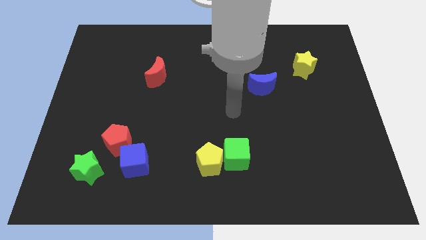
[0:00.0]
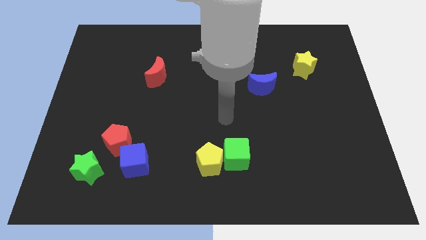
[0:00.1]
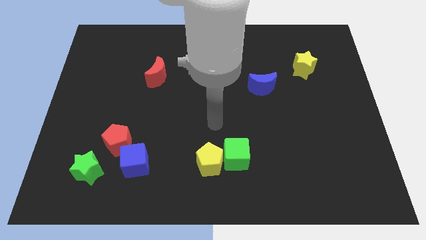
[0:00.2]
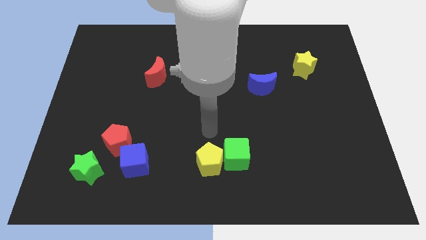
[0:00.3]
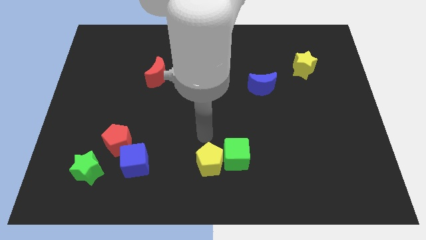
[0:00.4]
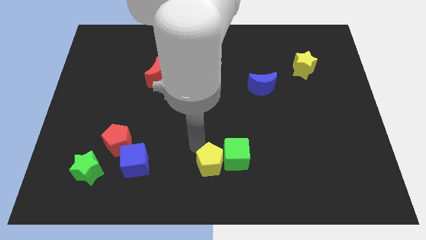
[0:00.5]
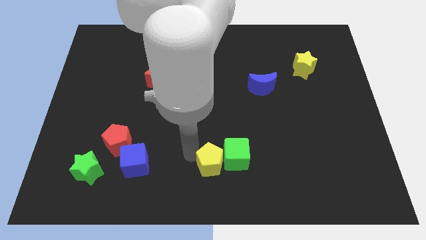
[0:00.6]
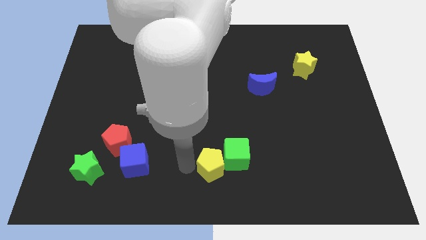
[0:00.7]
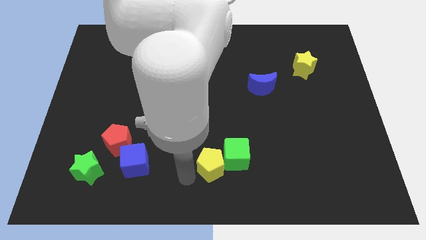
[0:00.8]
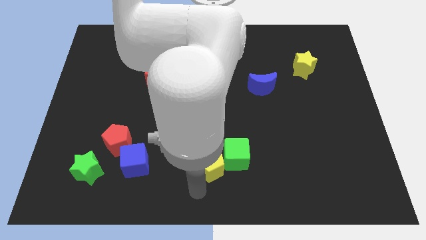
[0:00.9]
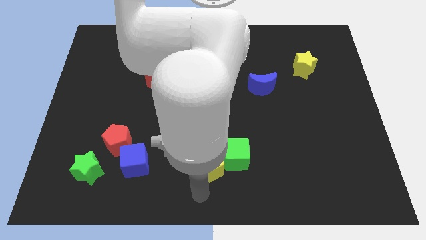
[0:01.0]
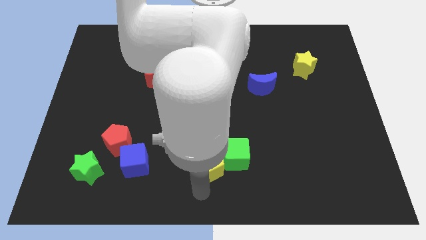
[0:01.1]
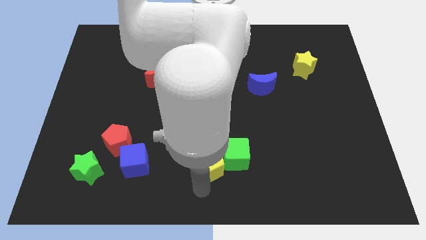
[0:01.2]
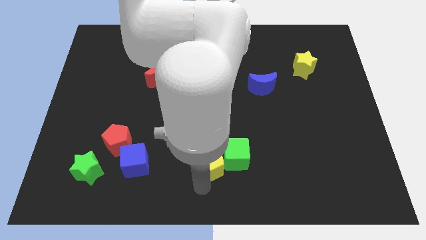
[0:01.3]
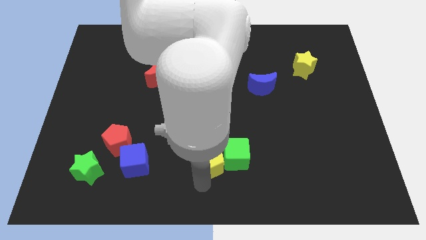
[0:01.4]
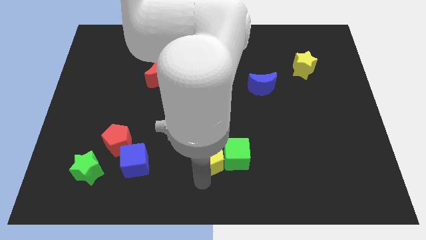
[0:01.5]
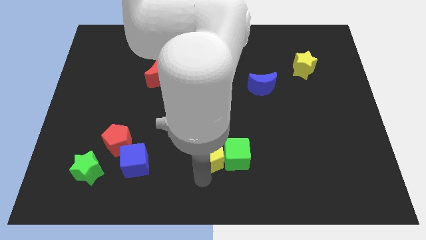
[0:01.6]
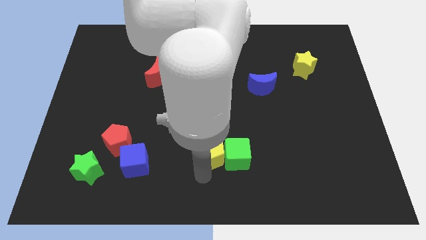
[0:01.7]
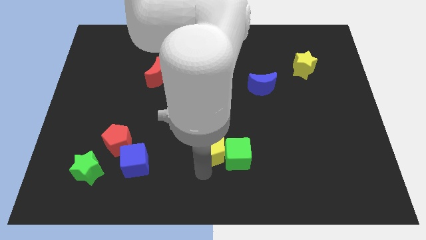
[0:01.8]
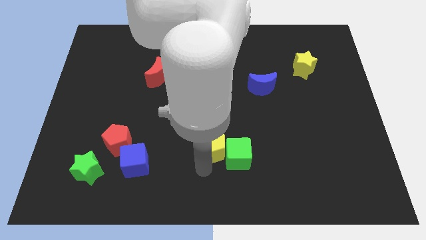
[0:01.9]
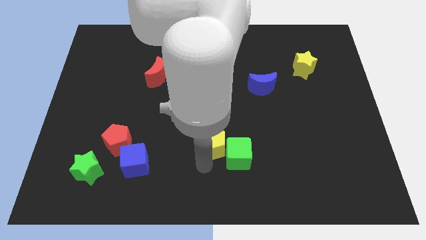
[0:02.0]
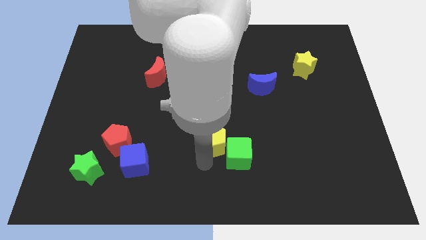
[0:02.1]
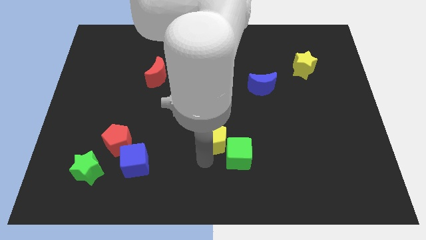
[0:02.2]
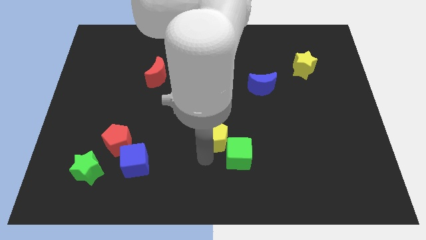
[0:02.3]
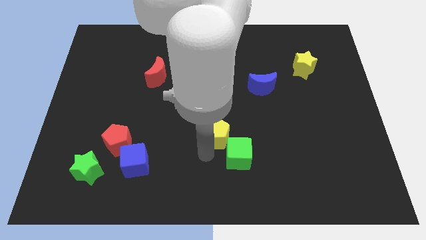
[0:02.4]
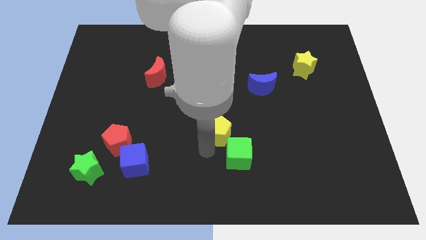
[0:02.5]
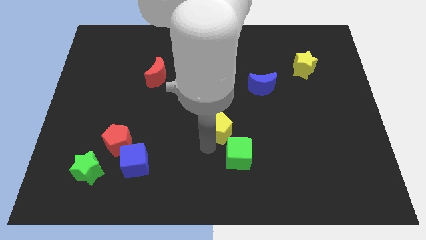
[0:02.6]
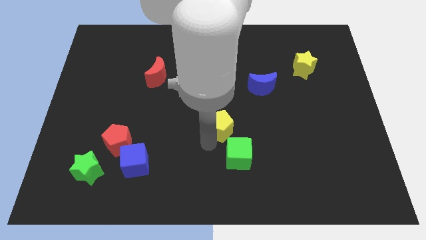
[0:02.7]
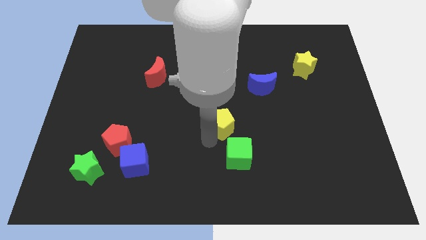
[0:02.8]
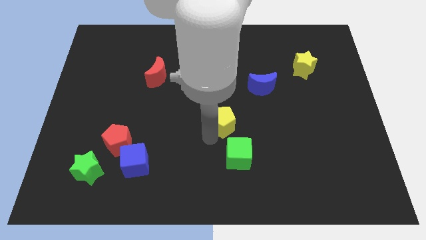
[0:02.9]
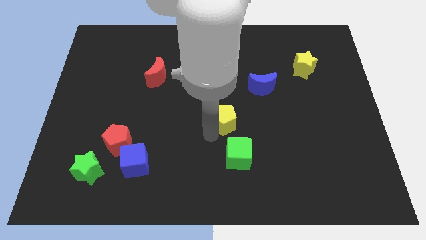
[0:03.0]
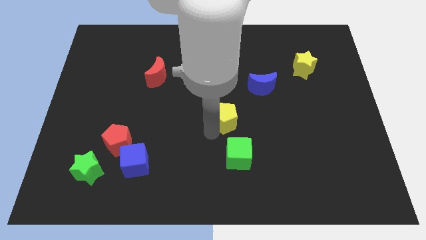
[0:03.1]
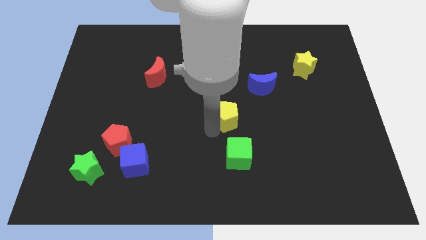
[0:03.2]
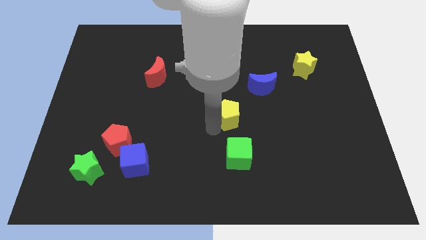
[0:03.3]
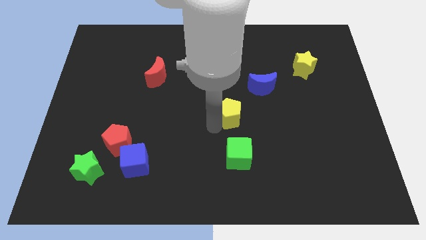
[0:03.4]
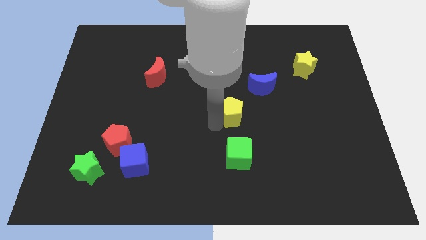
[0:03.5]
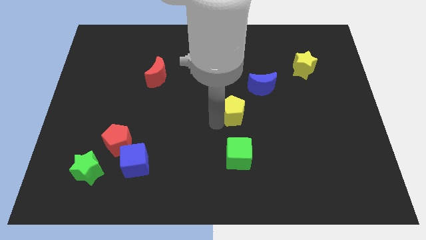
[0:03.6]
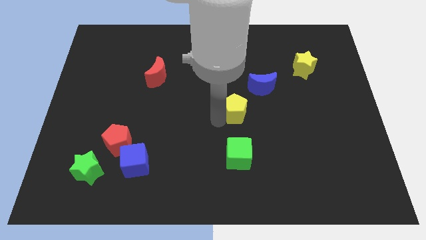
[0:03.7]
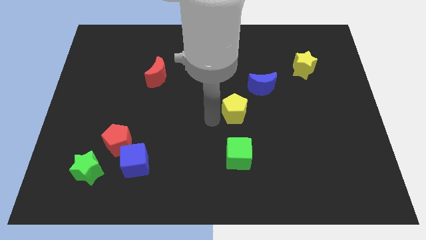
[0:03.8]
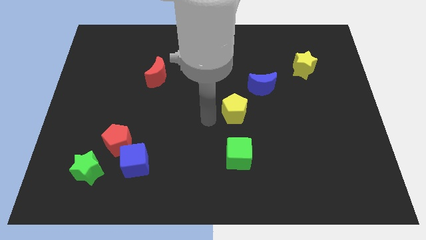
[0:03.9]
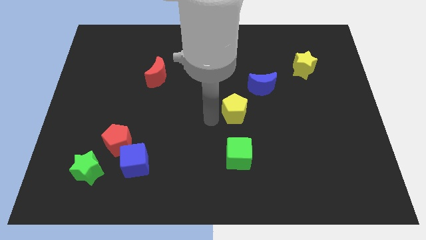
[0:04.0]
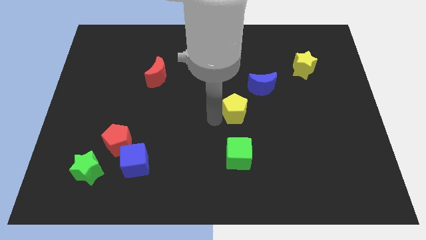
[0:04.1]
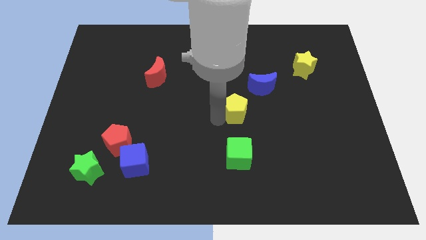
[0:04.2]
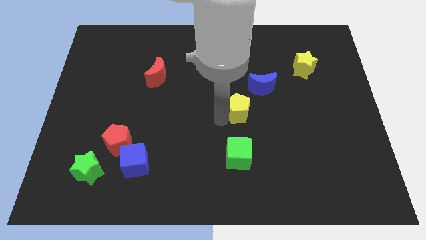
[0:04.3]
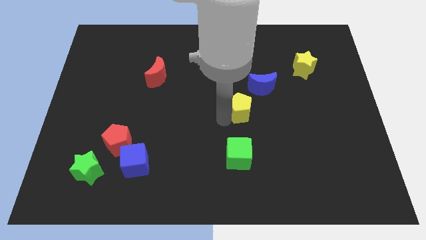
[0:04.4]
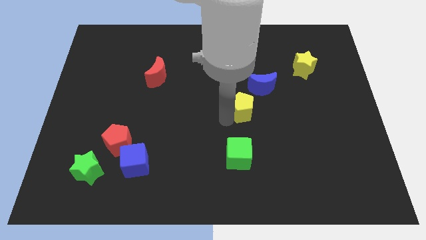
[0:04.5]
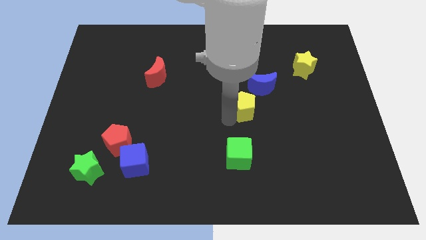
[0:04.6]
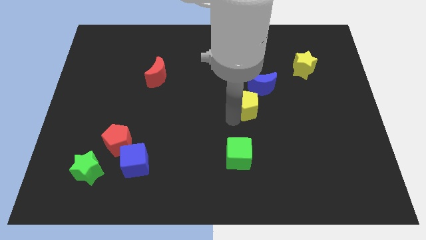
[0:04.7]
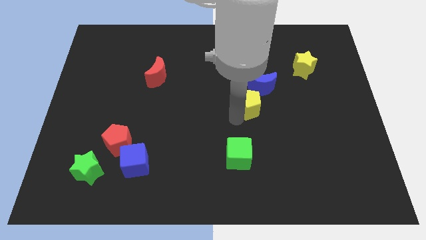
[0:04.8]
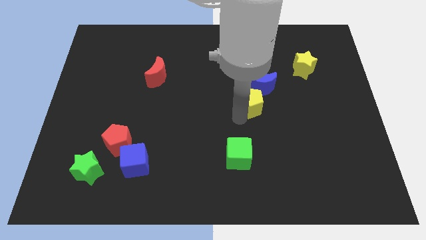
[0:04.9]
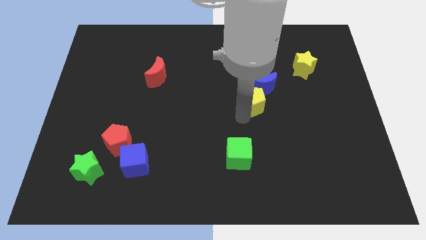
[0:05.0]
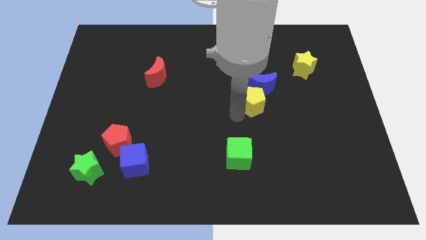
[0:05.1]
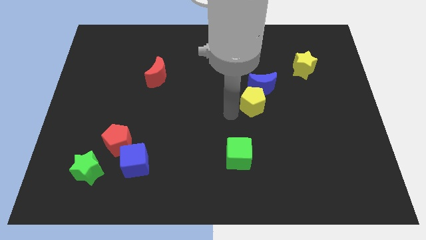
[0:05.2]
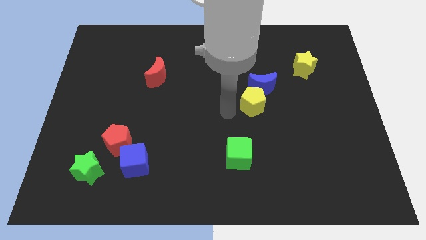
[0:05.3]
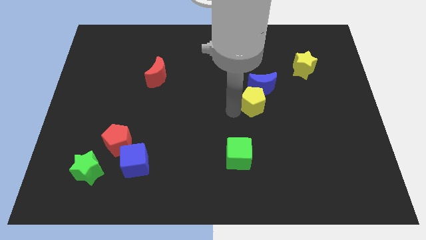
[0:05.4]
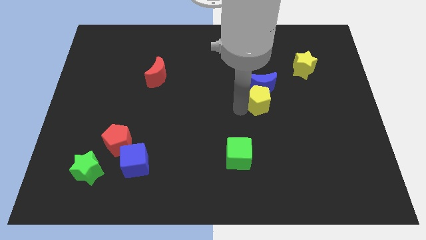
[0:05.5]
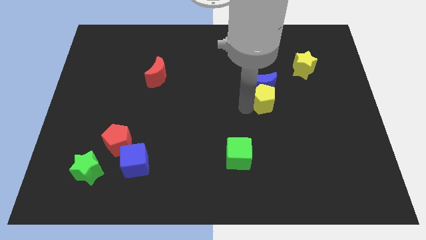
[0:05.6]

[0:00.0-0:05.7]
push the yellow pentagon up and to the right

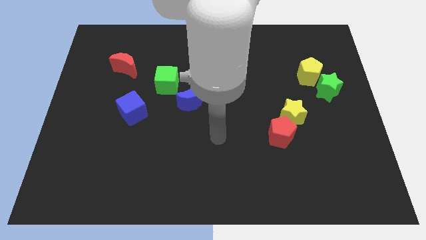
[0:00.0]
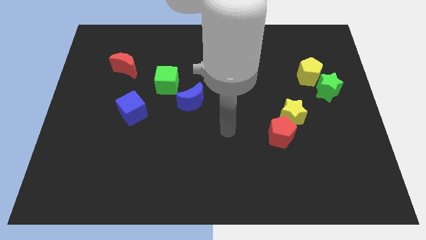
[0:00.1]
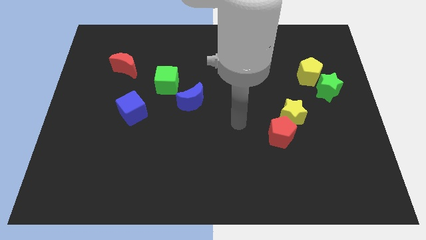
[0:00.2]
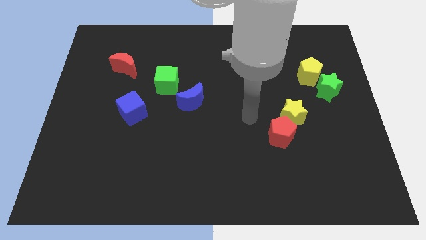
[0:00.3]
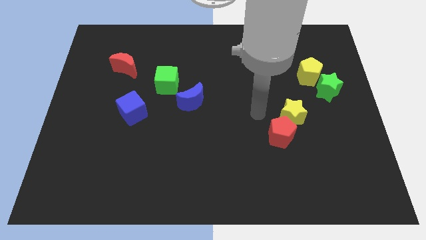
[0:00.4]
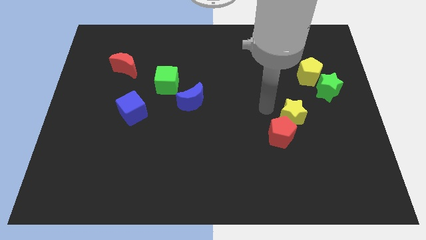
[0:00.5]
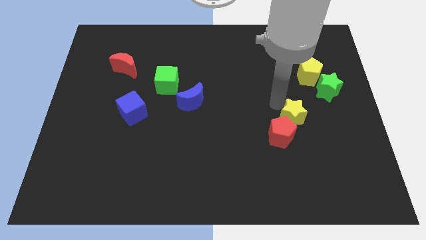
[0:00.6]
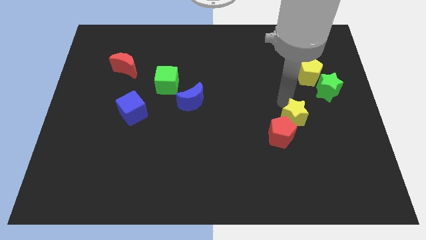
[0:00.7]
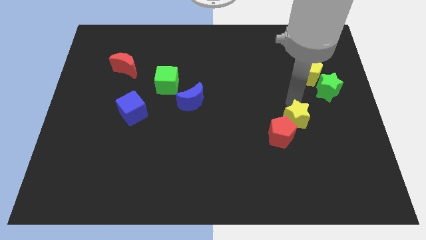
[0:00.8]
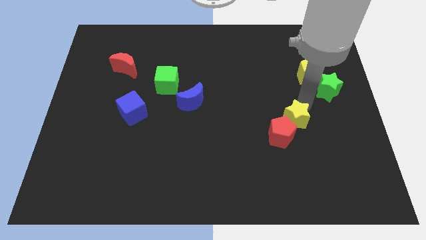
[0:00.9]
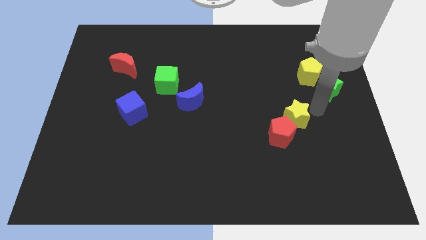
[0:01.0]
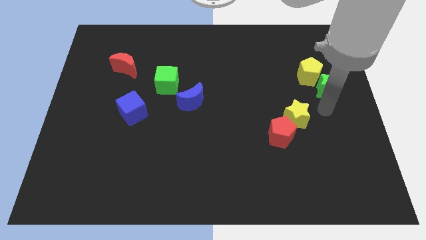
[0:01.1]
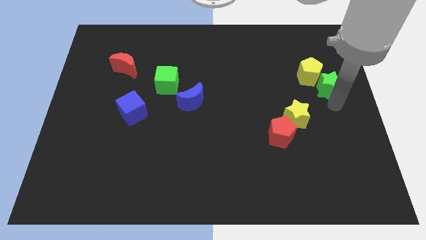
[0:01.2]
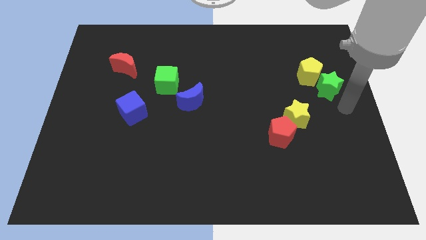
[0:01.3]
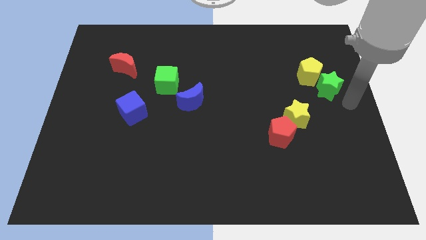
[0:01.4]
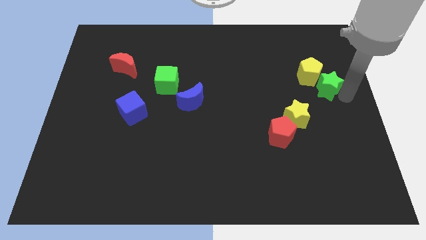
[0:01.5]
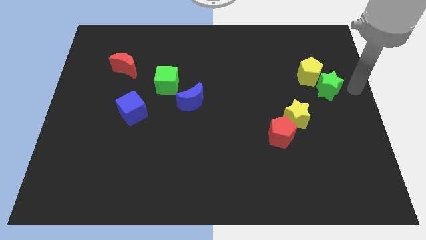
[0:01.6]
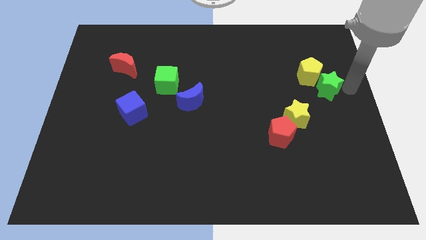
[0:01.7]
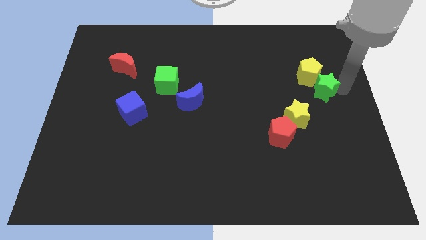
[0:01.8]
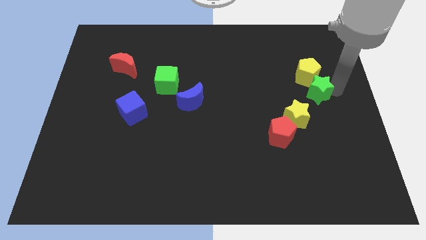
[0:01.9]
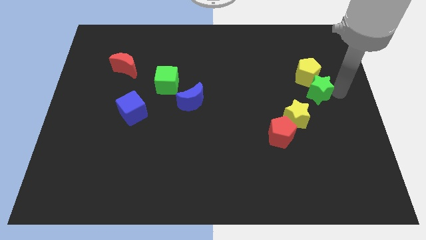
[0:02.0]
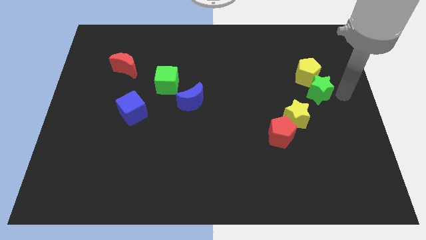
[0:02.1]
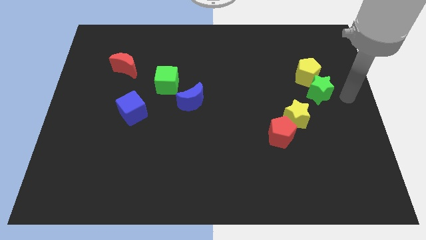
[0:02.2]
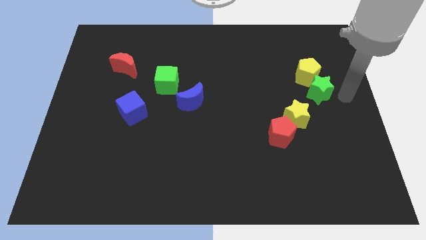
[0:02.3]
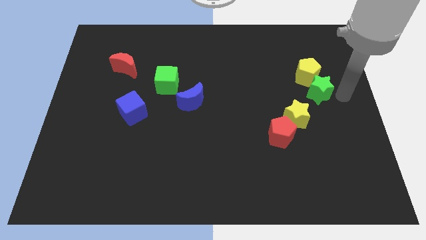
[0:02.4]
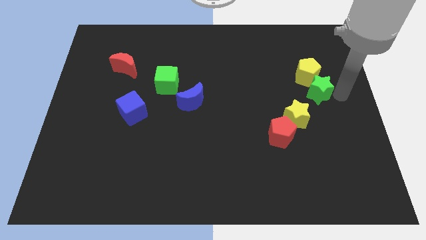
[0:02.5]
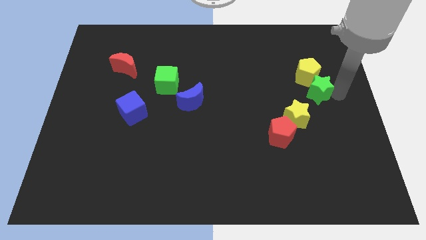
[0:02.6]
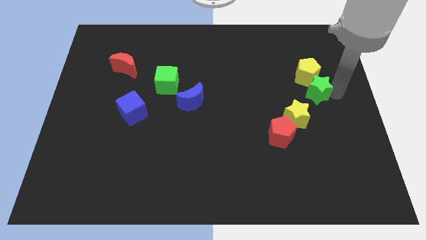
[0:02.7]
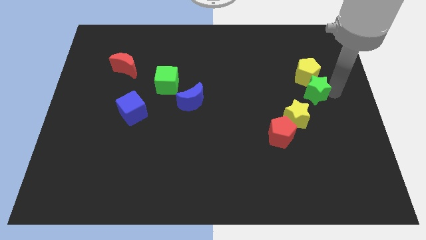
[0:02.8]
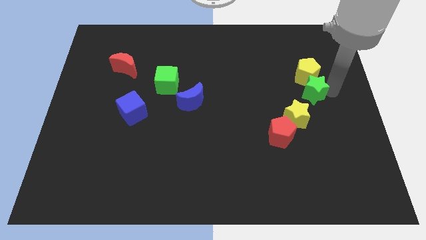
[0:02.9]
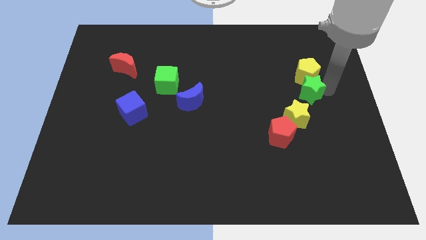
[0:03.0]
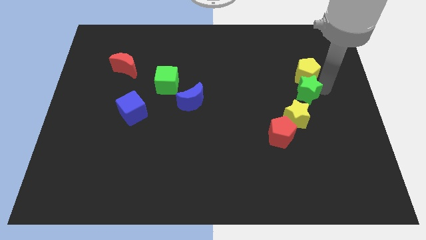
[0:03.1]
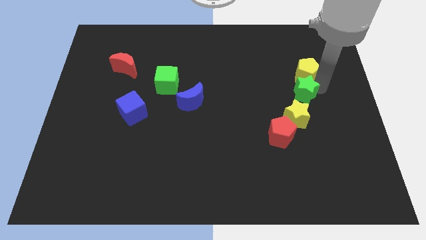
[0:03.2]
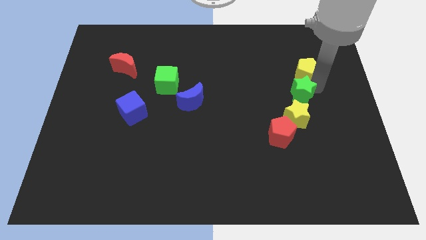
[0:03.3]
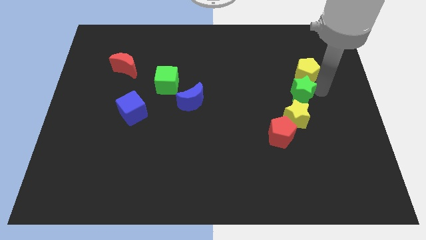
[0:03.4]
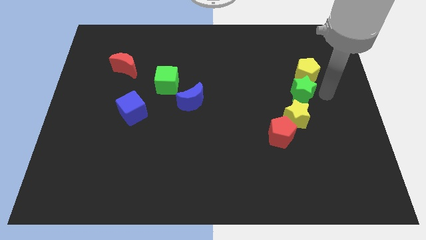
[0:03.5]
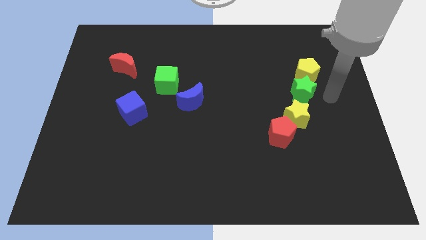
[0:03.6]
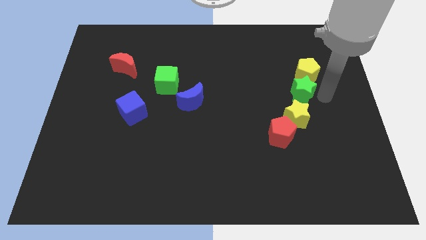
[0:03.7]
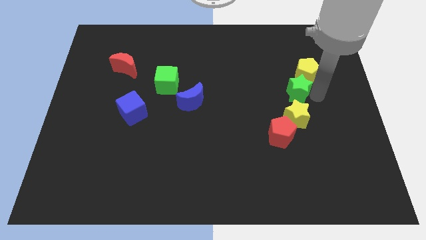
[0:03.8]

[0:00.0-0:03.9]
slightly push the green star left
